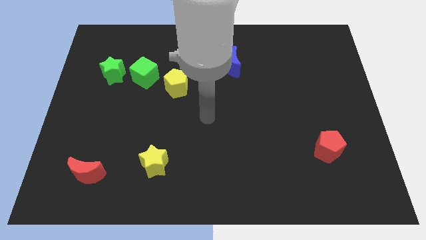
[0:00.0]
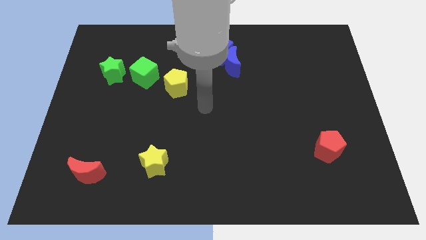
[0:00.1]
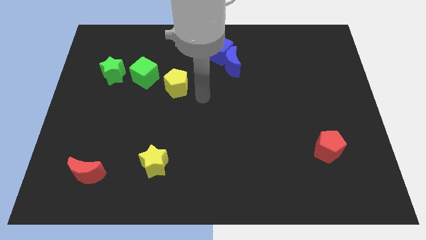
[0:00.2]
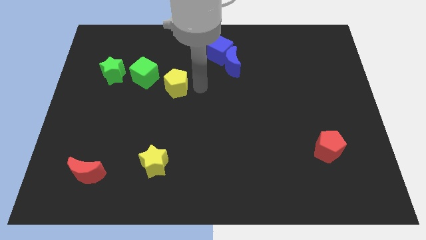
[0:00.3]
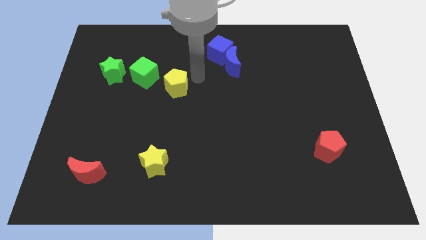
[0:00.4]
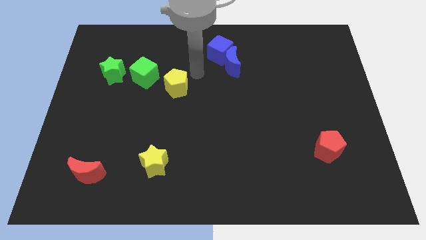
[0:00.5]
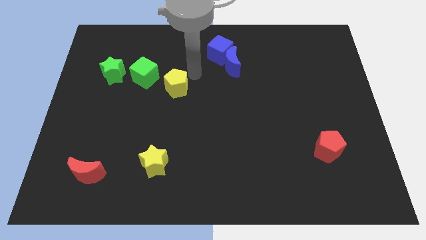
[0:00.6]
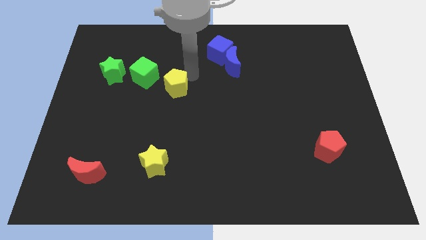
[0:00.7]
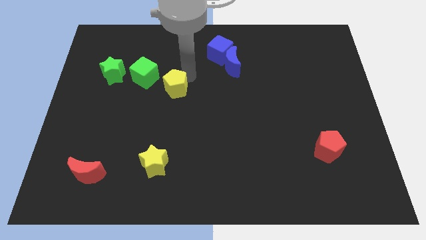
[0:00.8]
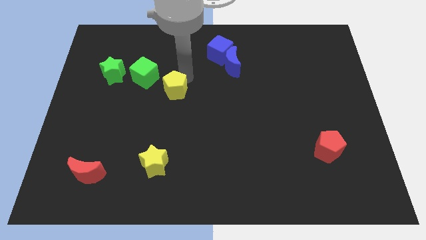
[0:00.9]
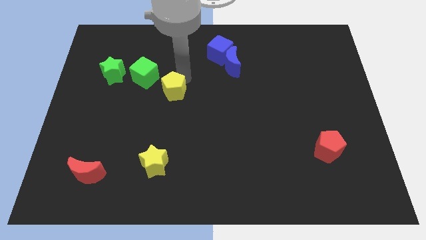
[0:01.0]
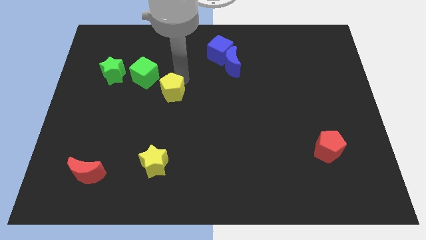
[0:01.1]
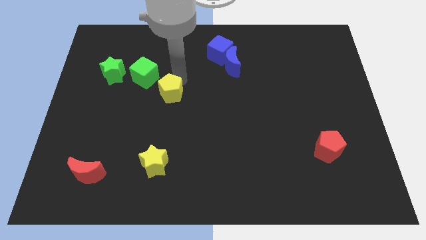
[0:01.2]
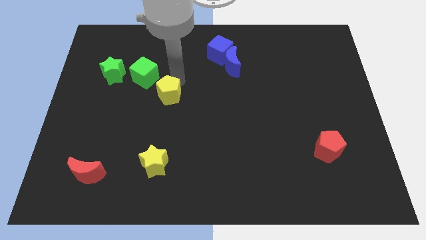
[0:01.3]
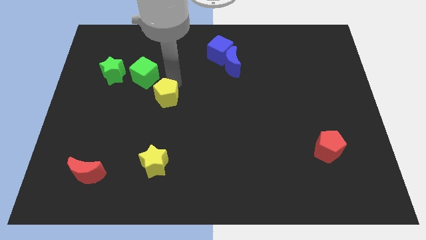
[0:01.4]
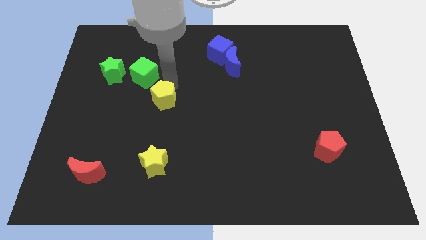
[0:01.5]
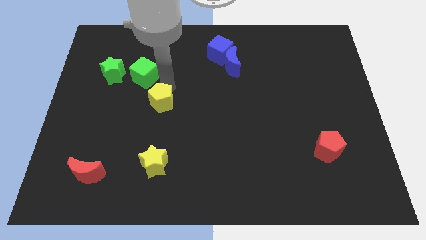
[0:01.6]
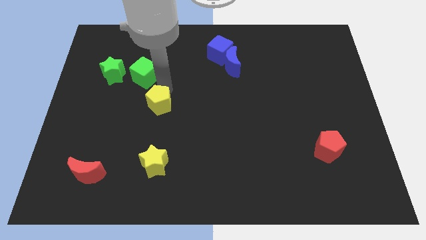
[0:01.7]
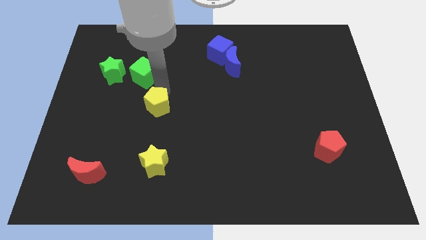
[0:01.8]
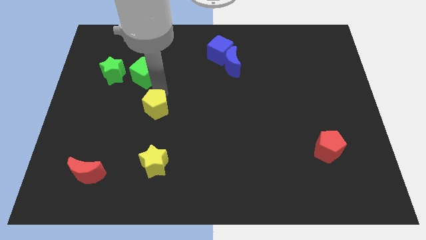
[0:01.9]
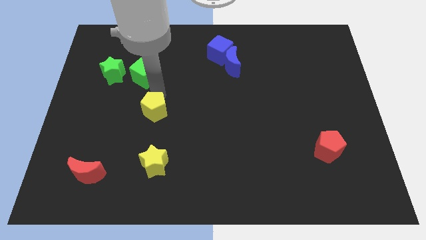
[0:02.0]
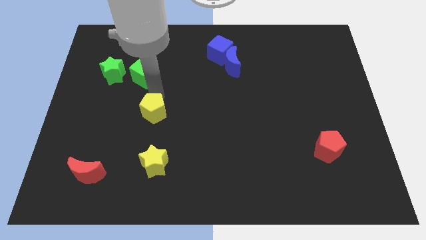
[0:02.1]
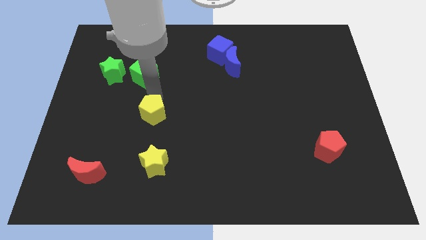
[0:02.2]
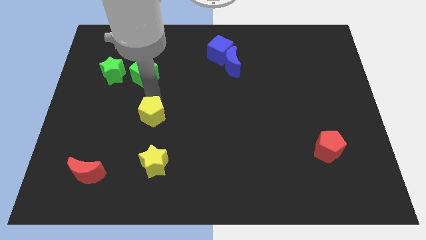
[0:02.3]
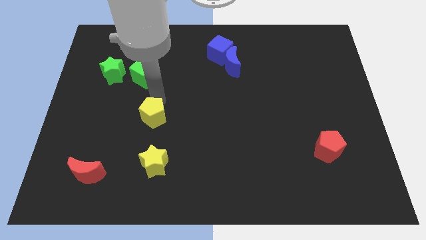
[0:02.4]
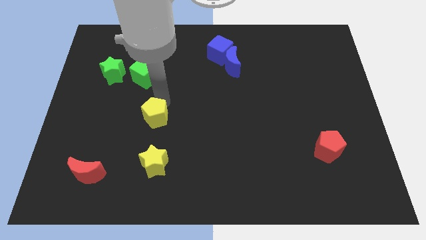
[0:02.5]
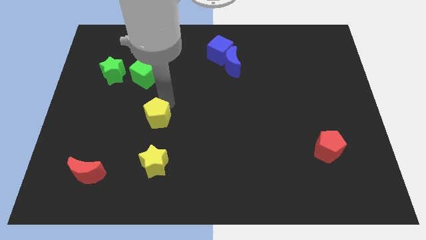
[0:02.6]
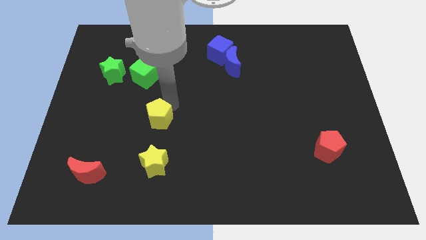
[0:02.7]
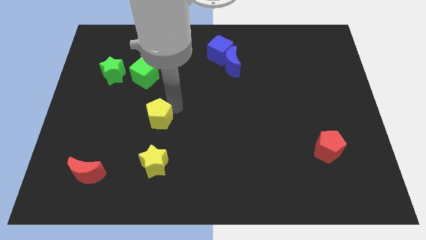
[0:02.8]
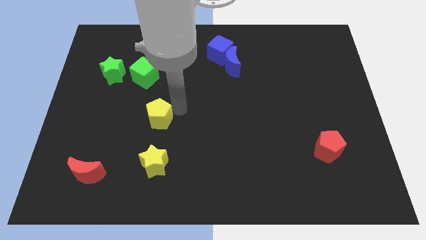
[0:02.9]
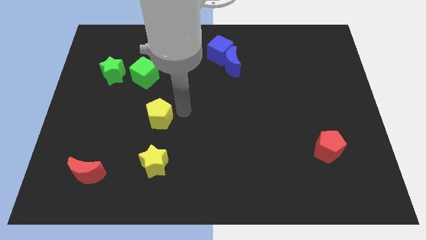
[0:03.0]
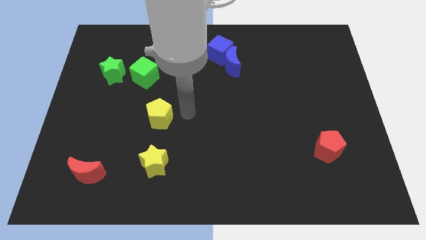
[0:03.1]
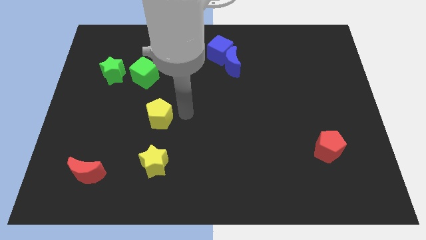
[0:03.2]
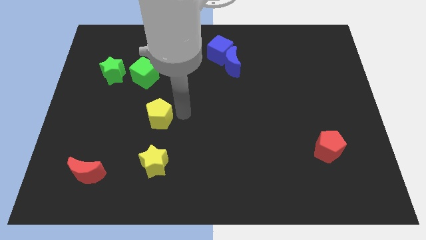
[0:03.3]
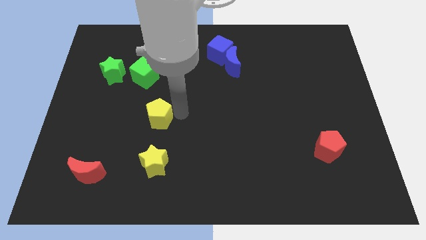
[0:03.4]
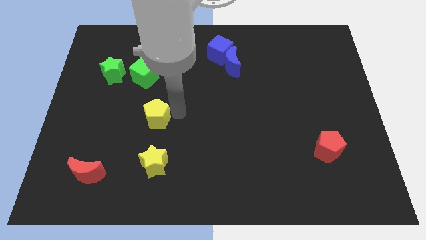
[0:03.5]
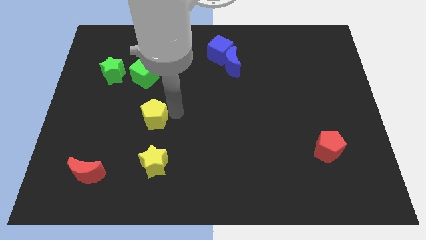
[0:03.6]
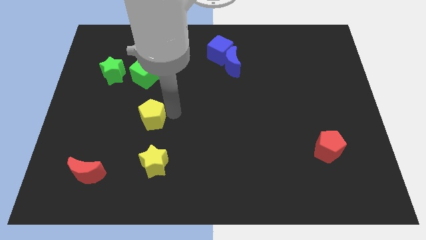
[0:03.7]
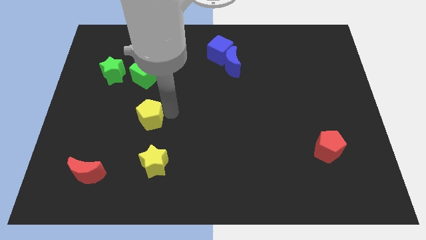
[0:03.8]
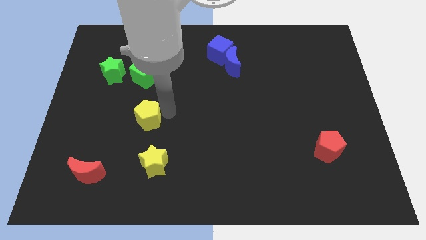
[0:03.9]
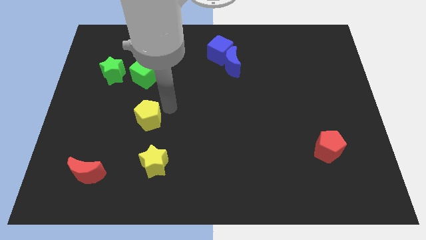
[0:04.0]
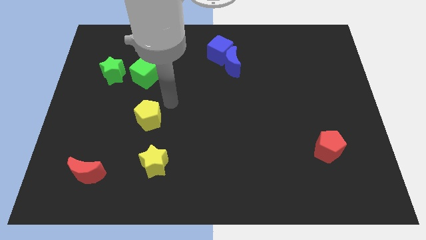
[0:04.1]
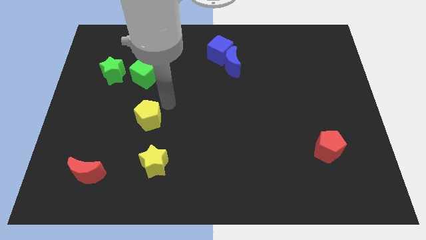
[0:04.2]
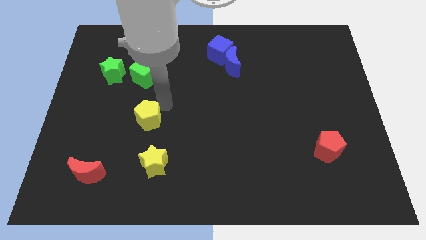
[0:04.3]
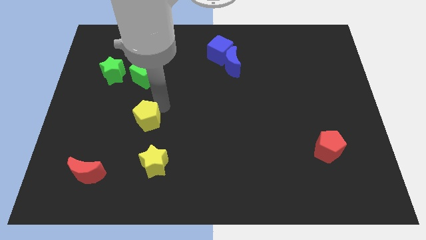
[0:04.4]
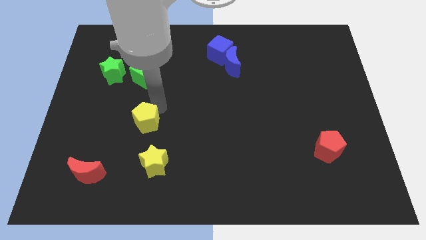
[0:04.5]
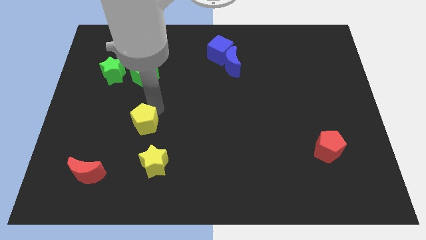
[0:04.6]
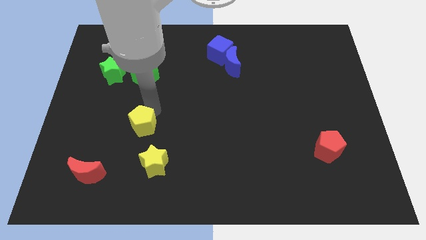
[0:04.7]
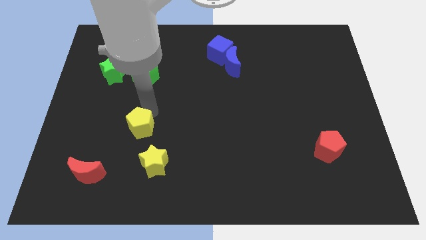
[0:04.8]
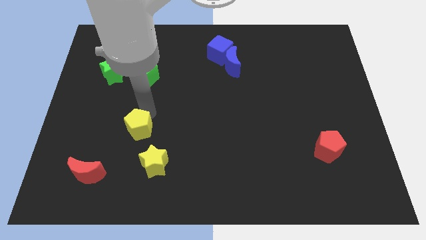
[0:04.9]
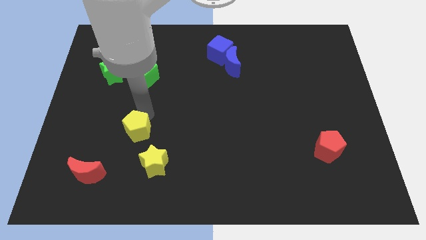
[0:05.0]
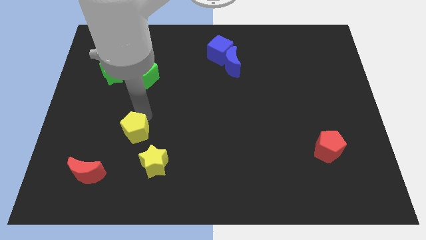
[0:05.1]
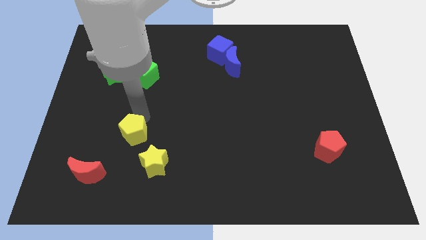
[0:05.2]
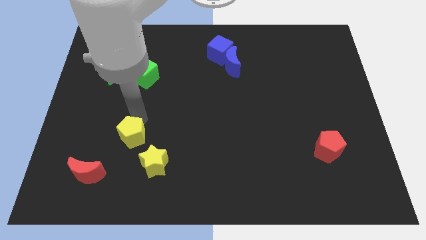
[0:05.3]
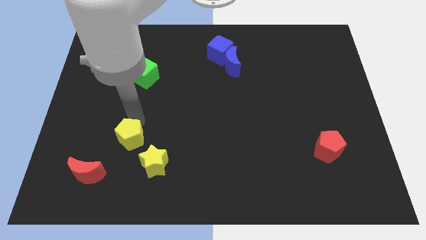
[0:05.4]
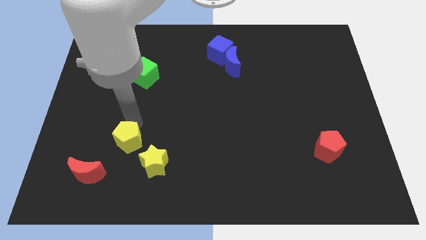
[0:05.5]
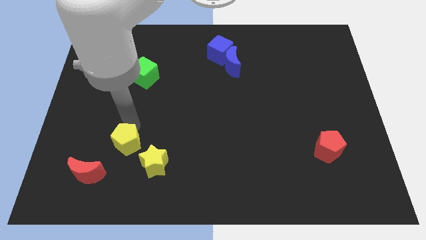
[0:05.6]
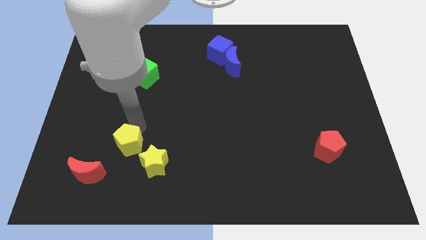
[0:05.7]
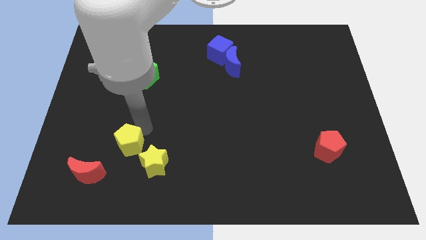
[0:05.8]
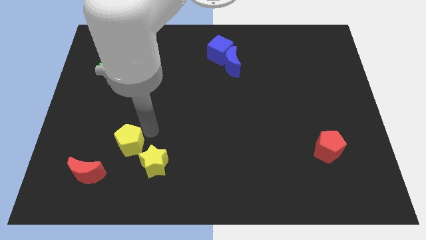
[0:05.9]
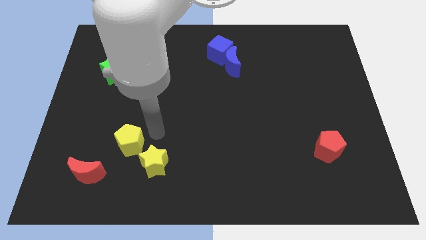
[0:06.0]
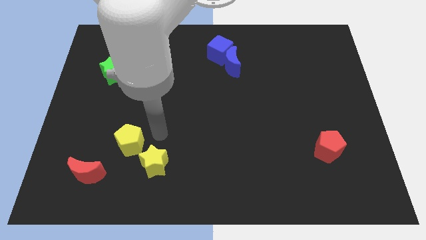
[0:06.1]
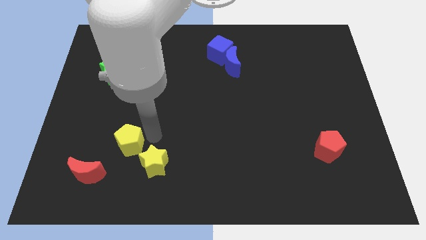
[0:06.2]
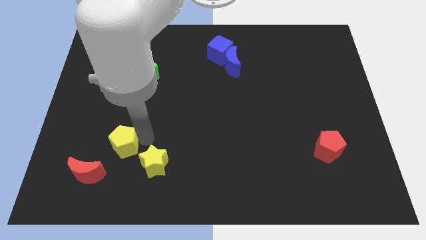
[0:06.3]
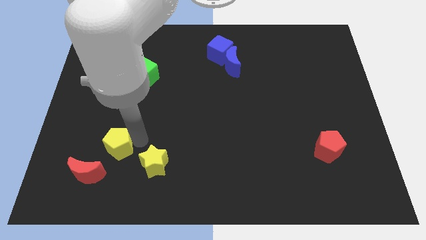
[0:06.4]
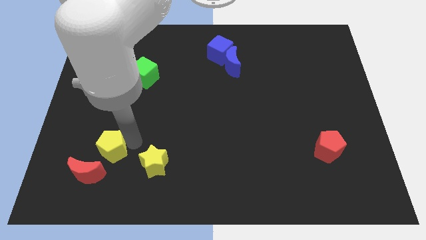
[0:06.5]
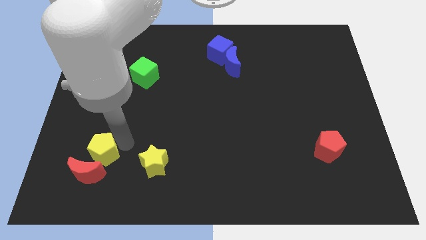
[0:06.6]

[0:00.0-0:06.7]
slide the yellow pentagon to the red moon
